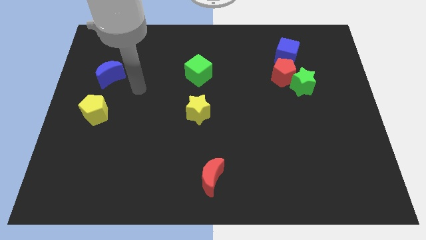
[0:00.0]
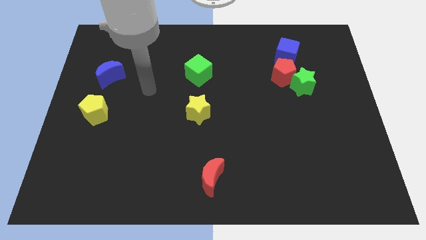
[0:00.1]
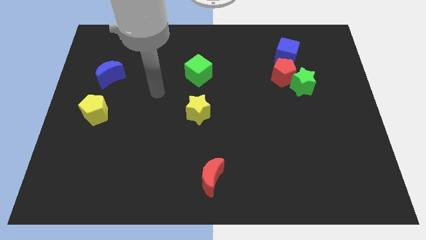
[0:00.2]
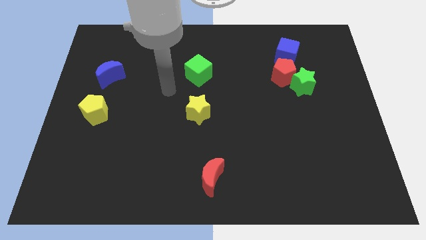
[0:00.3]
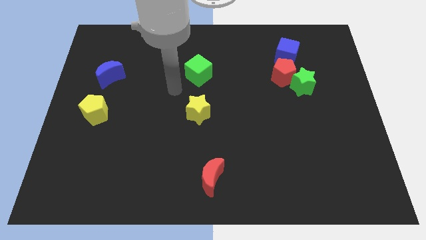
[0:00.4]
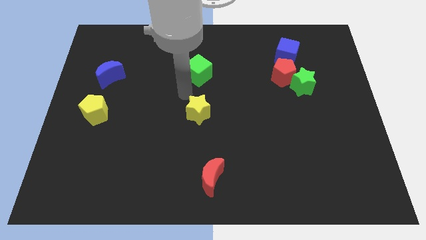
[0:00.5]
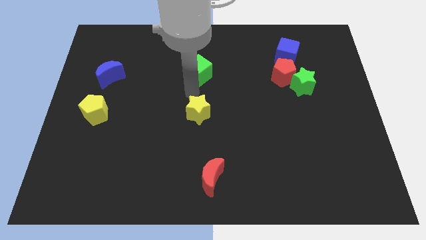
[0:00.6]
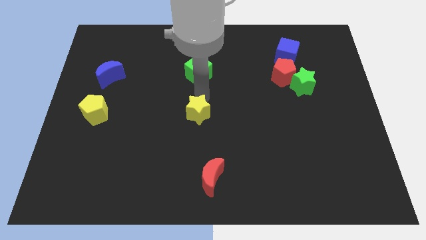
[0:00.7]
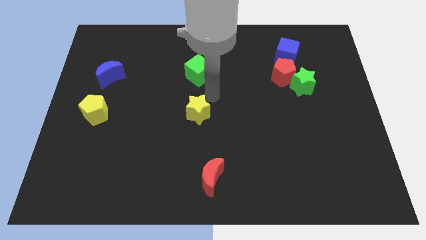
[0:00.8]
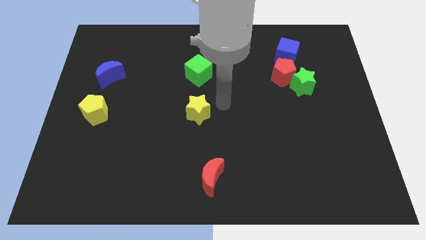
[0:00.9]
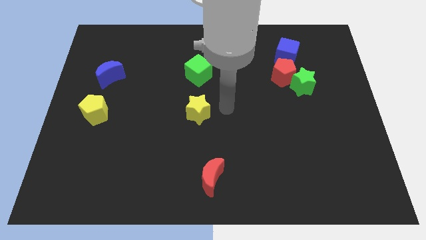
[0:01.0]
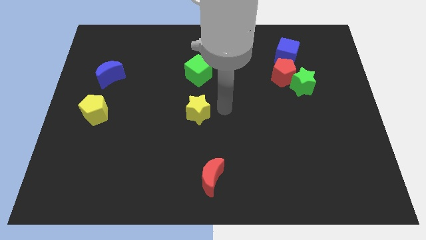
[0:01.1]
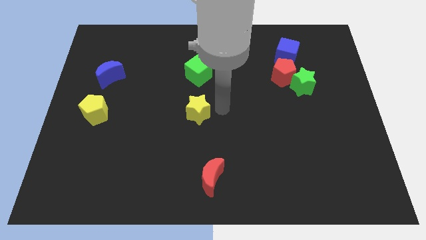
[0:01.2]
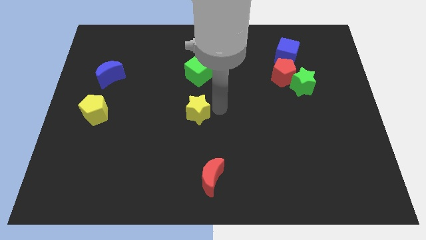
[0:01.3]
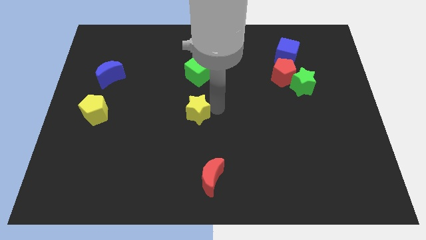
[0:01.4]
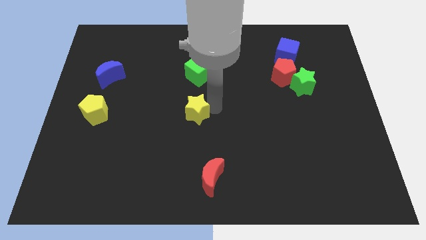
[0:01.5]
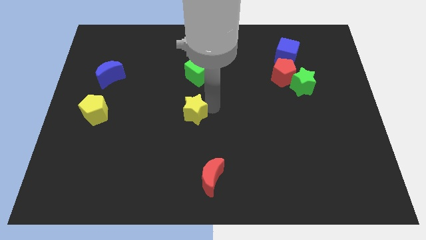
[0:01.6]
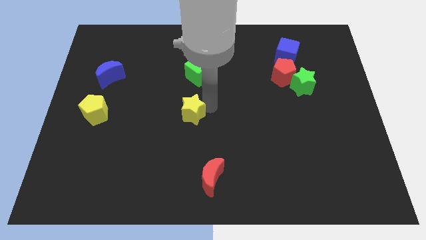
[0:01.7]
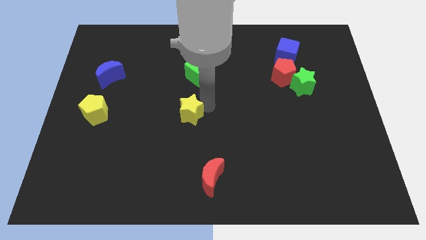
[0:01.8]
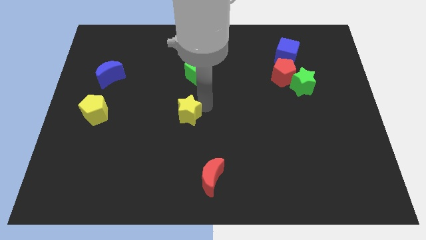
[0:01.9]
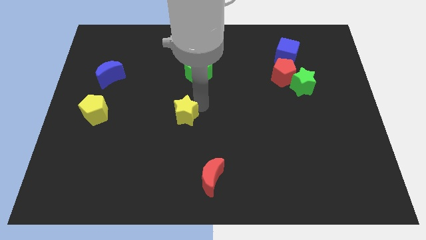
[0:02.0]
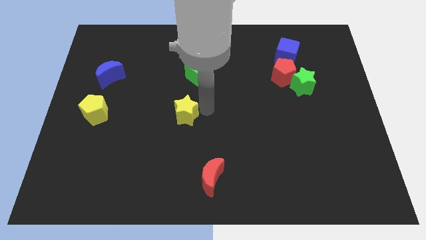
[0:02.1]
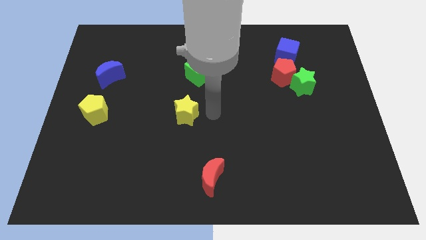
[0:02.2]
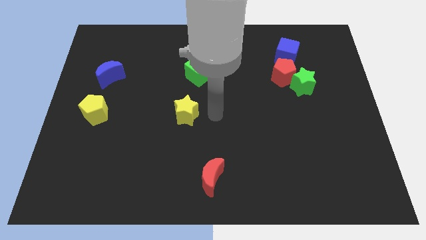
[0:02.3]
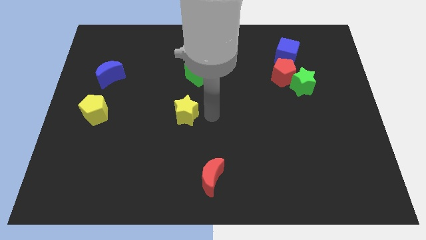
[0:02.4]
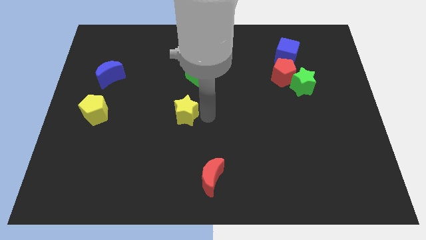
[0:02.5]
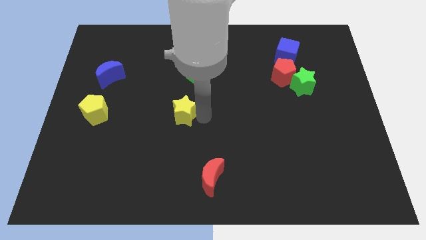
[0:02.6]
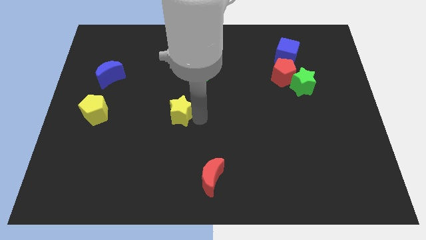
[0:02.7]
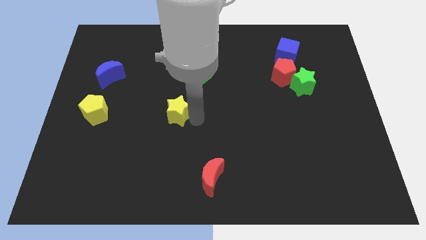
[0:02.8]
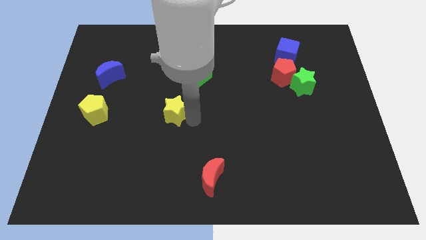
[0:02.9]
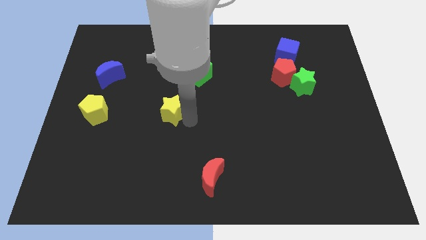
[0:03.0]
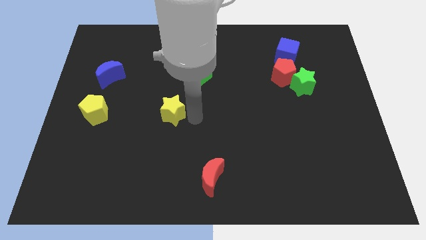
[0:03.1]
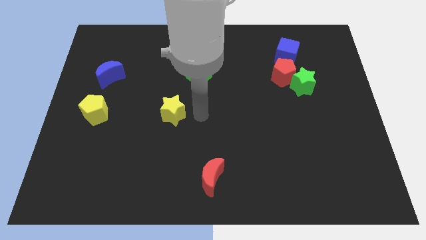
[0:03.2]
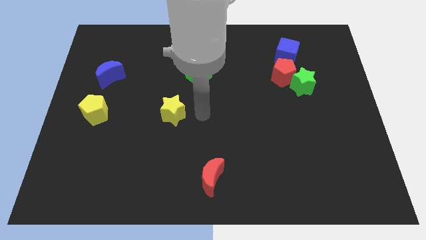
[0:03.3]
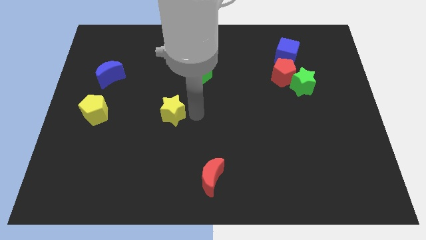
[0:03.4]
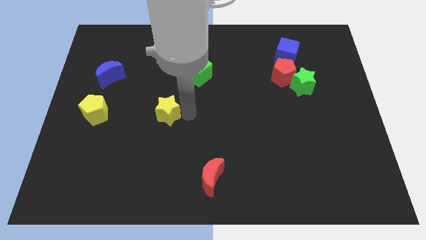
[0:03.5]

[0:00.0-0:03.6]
slide the yellow star left a bit

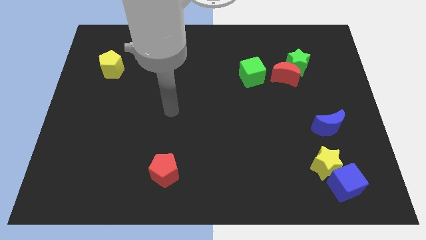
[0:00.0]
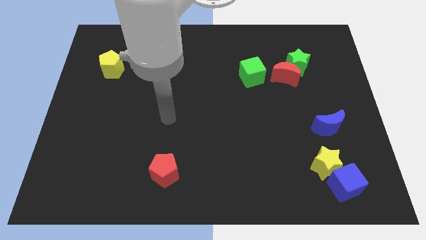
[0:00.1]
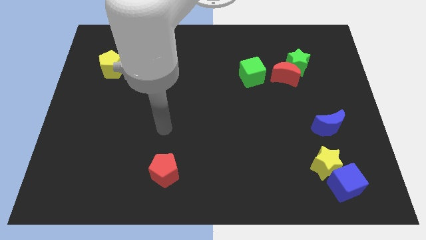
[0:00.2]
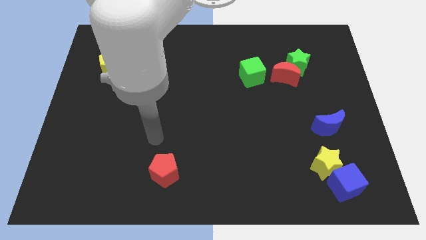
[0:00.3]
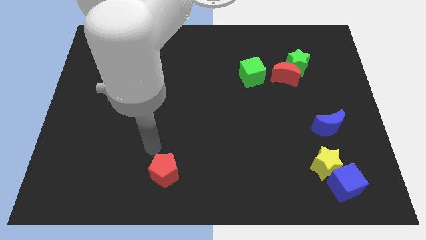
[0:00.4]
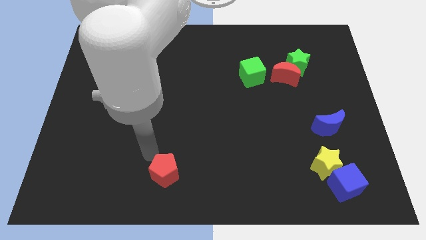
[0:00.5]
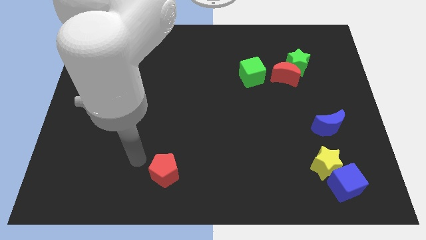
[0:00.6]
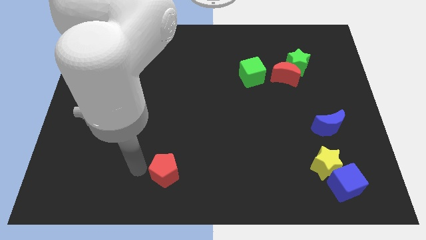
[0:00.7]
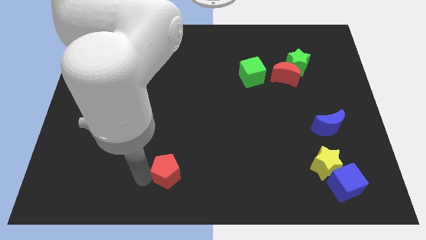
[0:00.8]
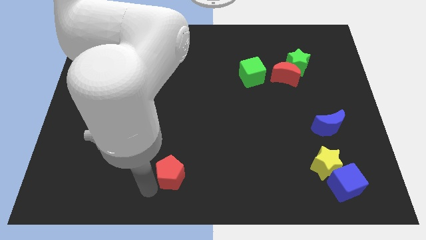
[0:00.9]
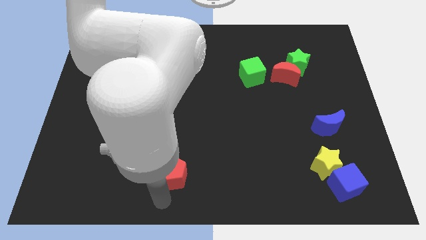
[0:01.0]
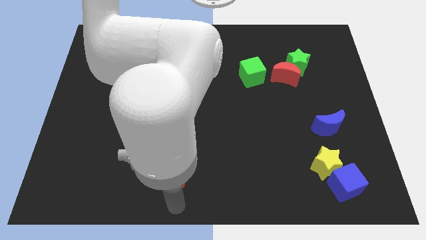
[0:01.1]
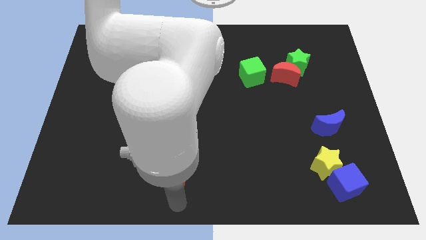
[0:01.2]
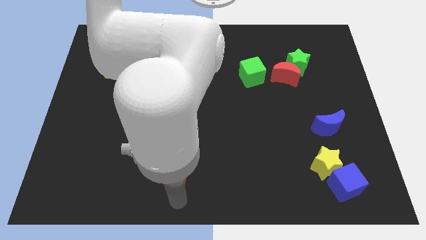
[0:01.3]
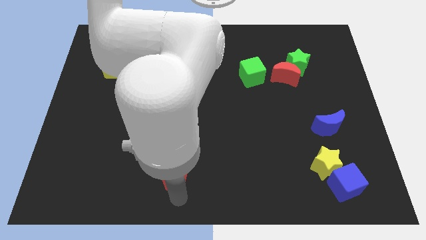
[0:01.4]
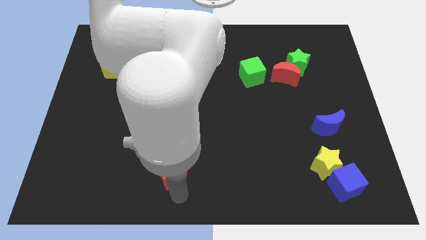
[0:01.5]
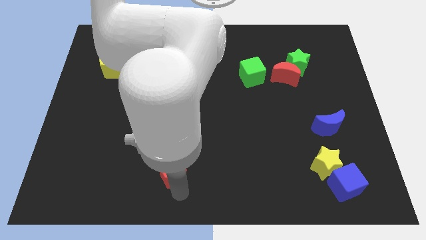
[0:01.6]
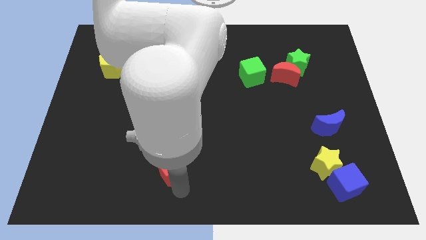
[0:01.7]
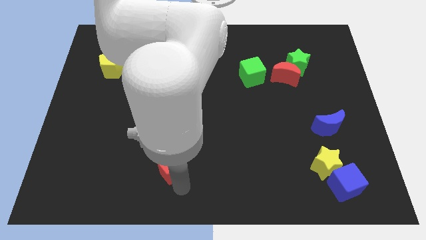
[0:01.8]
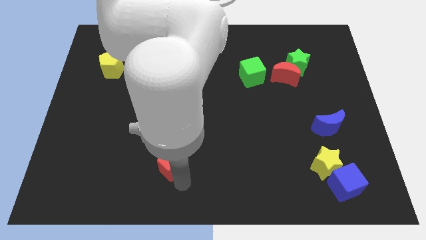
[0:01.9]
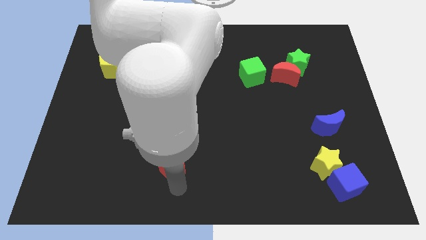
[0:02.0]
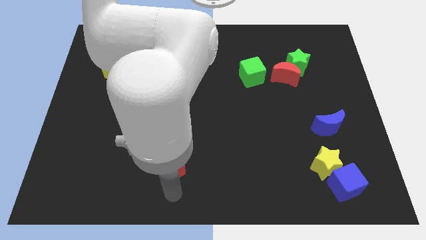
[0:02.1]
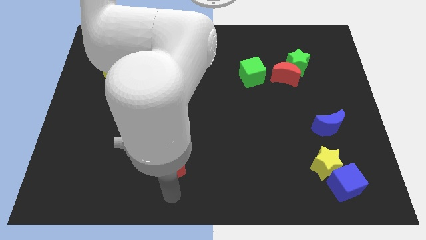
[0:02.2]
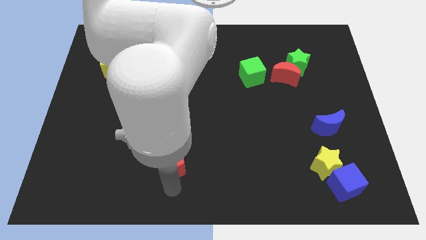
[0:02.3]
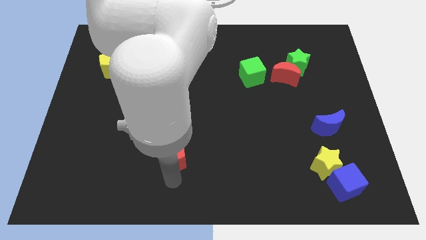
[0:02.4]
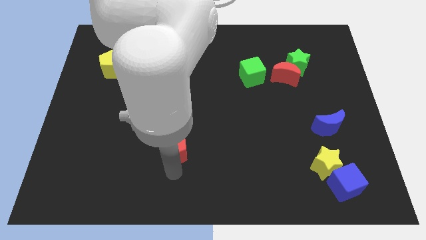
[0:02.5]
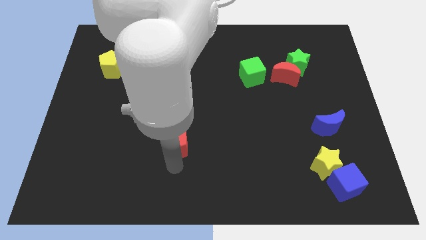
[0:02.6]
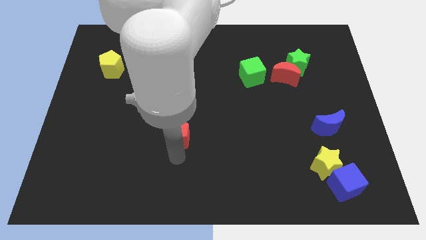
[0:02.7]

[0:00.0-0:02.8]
slide the red pentagon a bit up

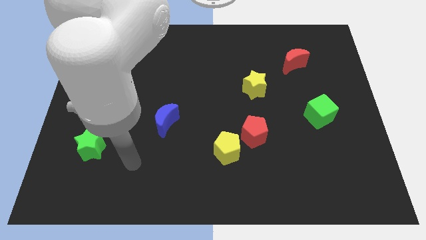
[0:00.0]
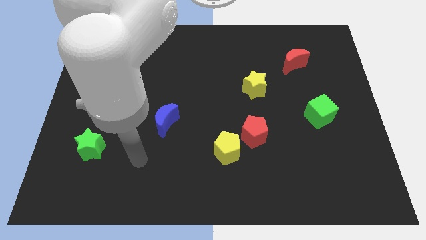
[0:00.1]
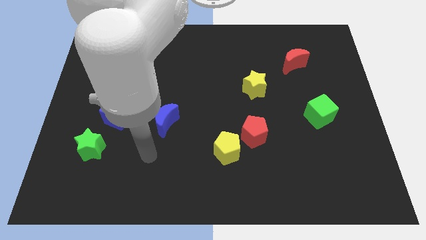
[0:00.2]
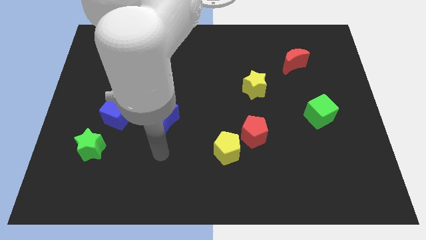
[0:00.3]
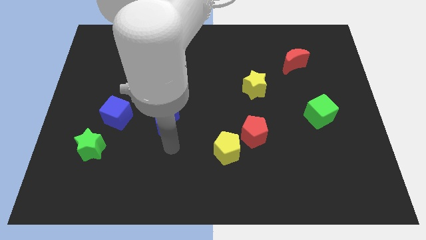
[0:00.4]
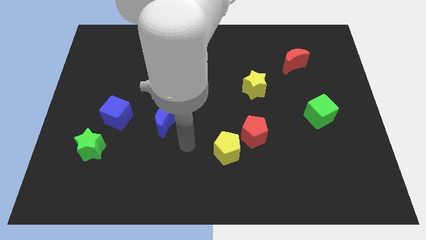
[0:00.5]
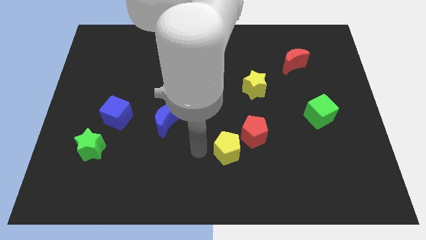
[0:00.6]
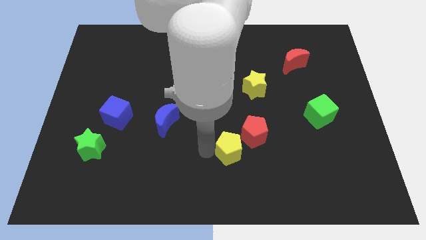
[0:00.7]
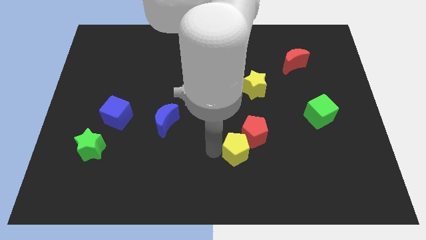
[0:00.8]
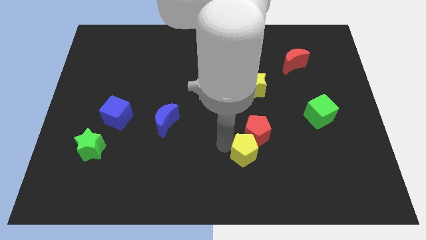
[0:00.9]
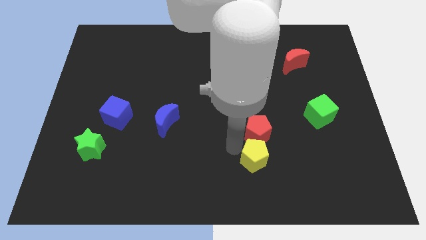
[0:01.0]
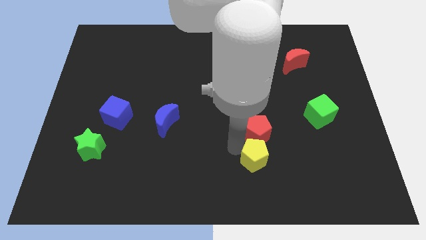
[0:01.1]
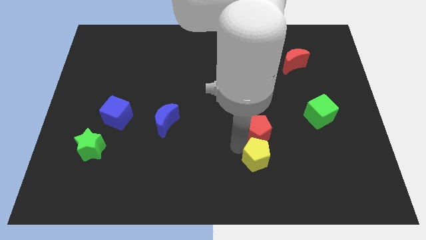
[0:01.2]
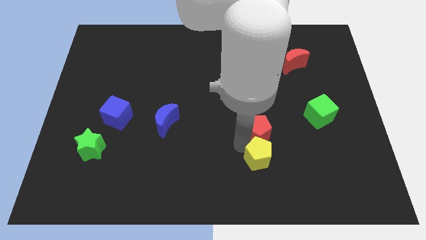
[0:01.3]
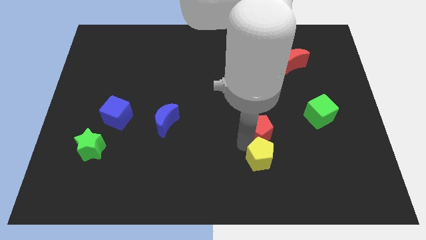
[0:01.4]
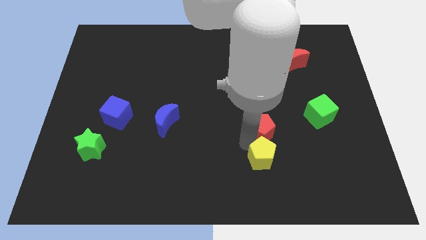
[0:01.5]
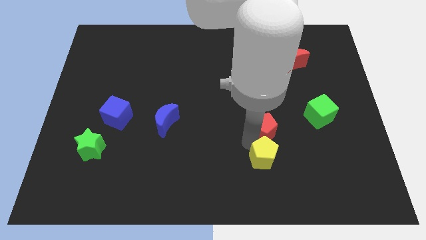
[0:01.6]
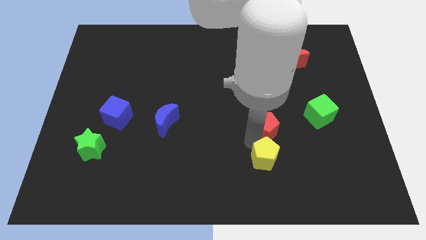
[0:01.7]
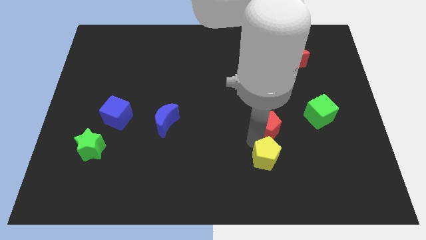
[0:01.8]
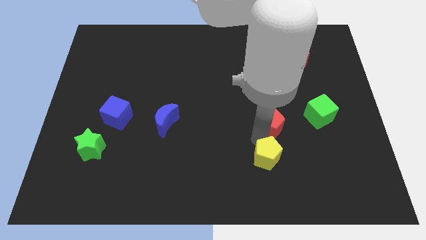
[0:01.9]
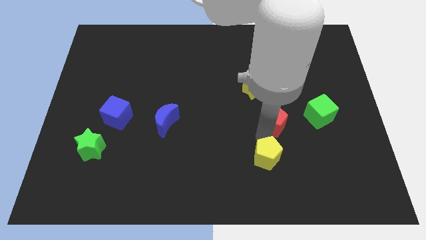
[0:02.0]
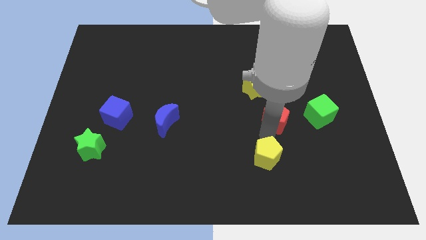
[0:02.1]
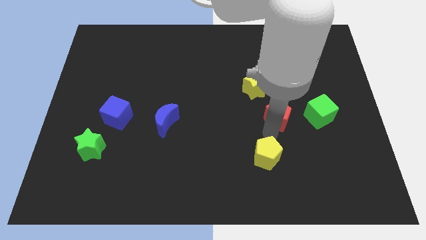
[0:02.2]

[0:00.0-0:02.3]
slide the red pentagon upwards and right diagonally a bit

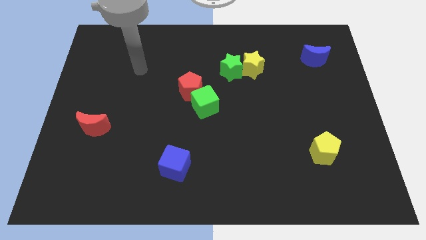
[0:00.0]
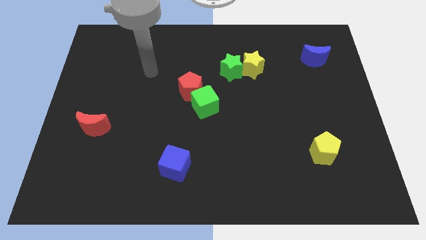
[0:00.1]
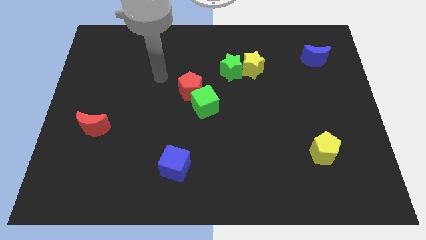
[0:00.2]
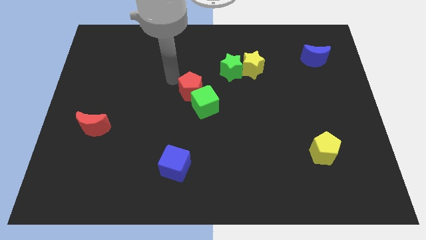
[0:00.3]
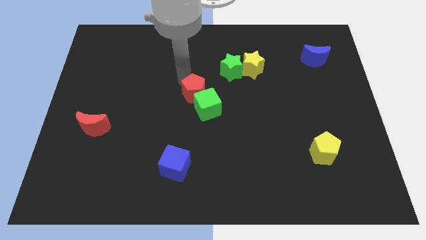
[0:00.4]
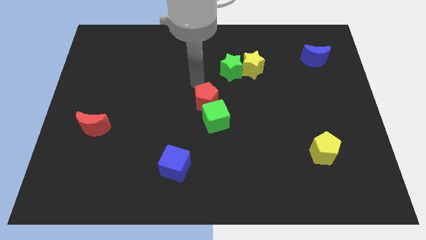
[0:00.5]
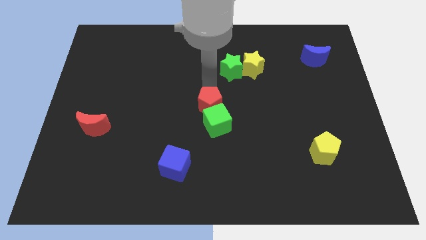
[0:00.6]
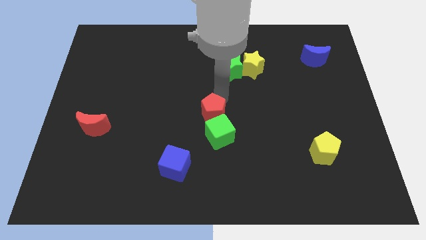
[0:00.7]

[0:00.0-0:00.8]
slightly move the green cube down
